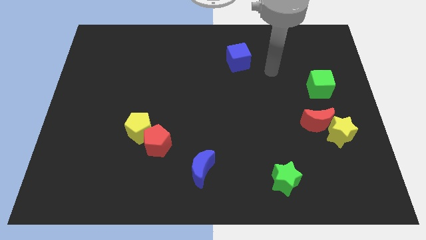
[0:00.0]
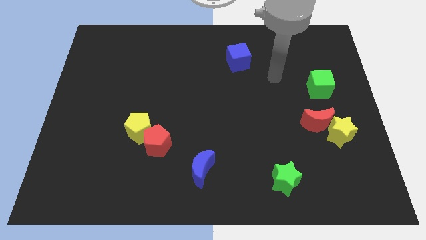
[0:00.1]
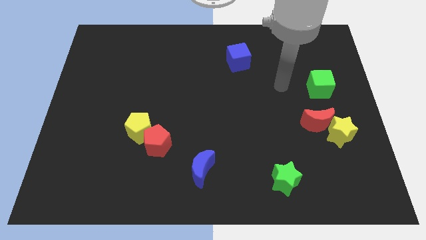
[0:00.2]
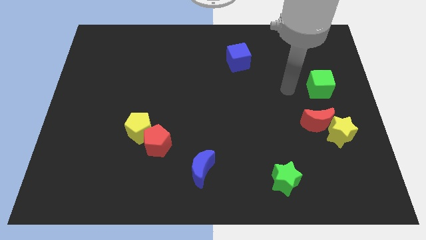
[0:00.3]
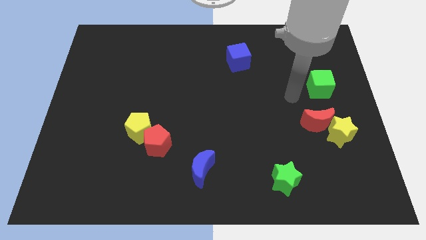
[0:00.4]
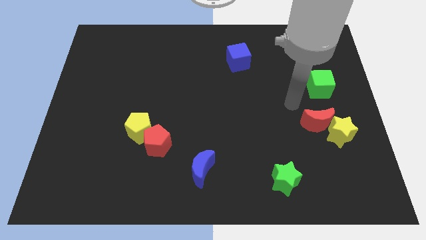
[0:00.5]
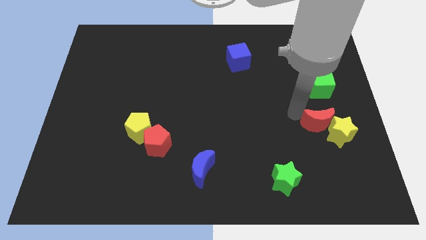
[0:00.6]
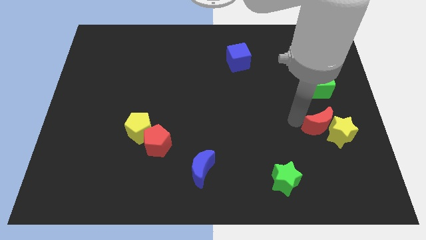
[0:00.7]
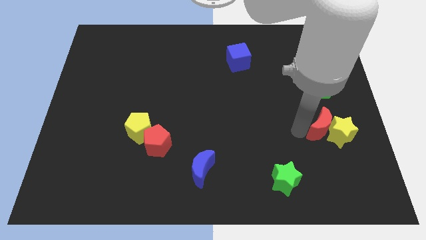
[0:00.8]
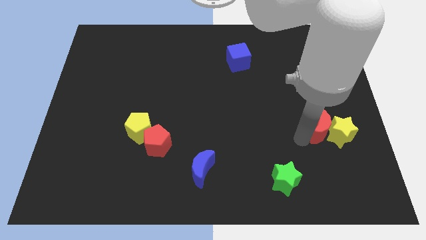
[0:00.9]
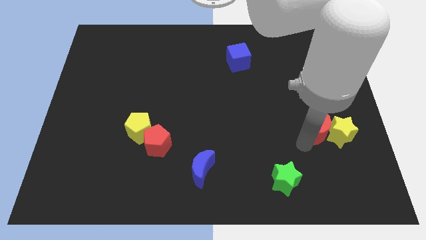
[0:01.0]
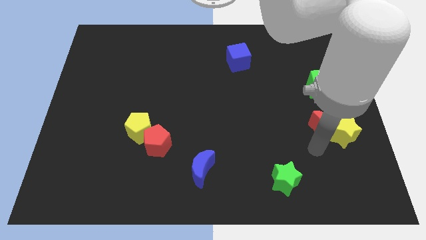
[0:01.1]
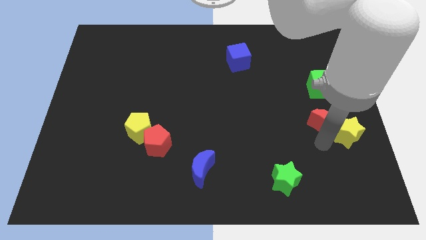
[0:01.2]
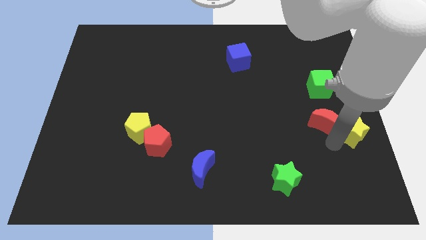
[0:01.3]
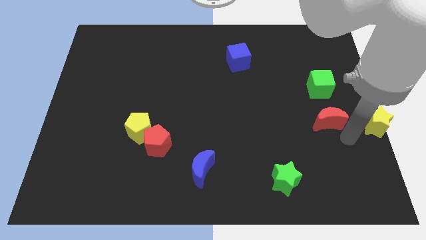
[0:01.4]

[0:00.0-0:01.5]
pull the red moon apart from the yellow star

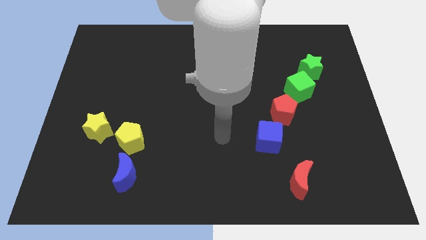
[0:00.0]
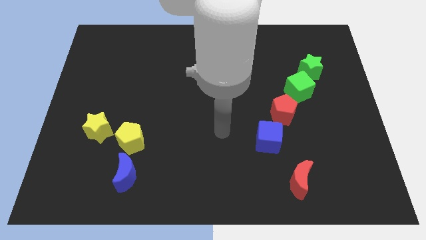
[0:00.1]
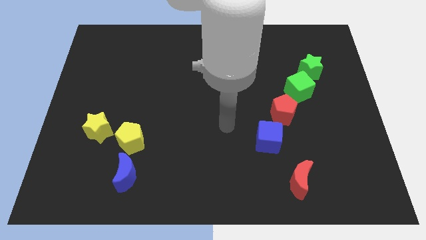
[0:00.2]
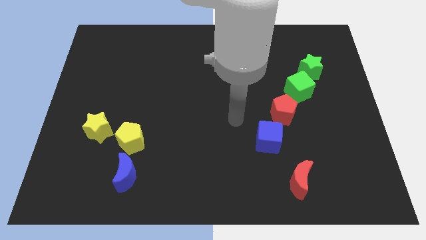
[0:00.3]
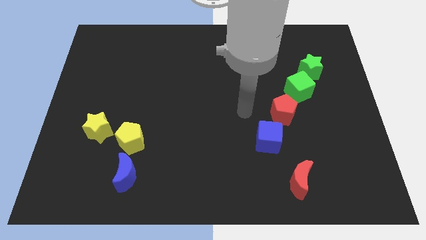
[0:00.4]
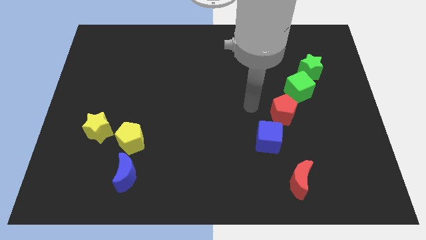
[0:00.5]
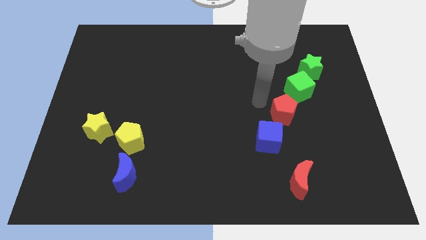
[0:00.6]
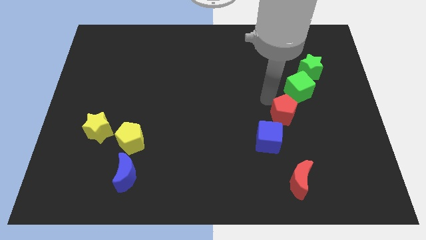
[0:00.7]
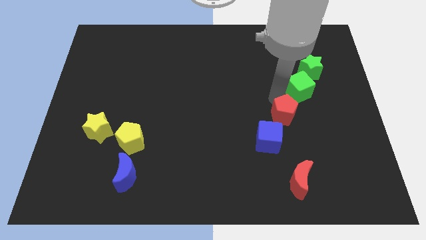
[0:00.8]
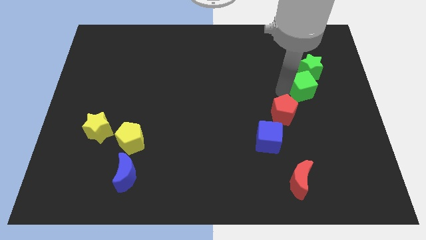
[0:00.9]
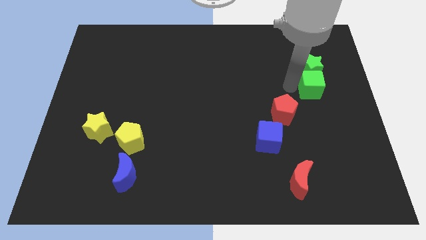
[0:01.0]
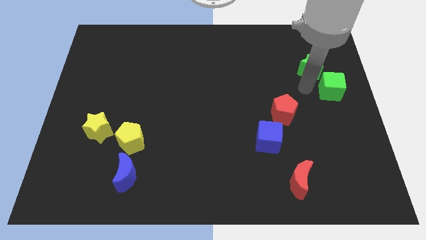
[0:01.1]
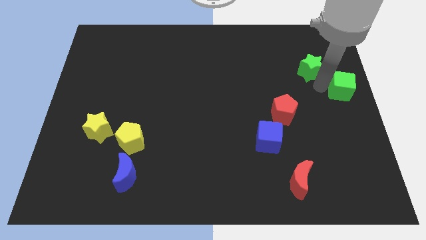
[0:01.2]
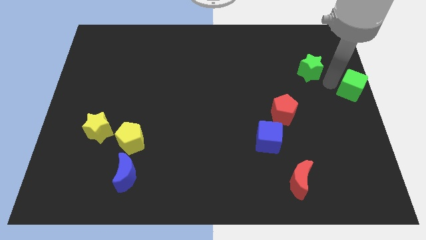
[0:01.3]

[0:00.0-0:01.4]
pull the green star apart from the green cube

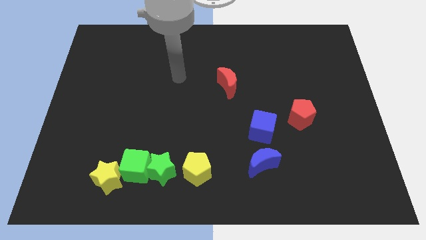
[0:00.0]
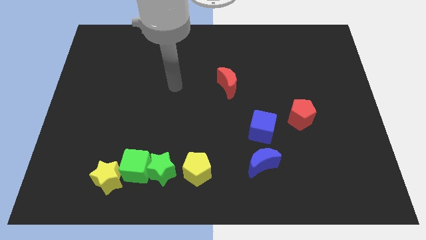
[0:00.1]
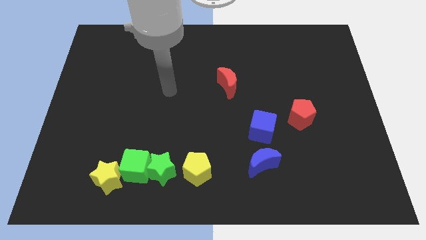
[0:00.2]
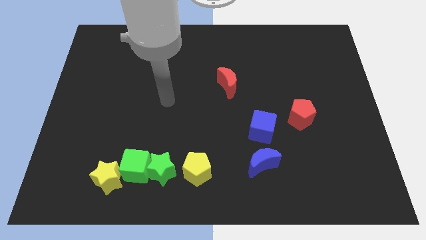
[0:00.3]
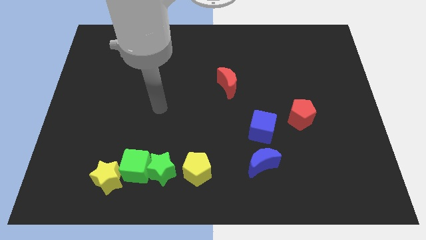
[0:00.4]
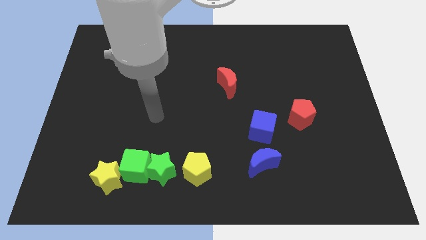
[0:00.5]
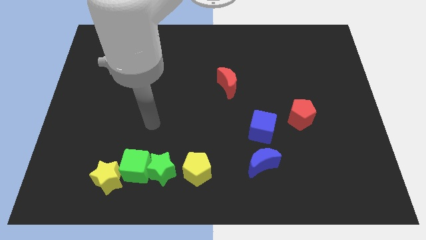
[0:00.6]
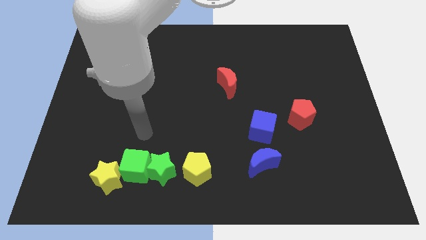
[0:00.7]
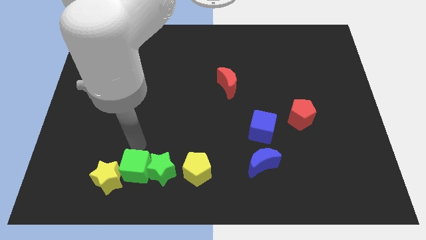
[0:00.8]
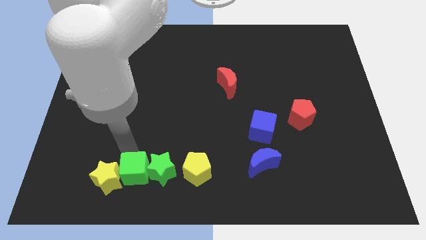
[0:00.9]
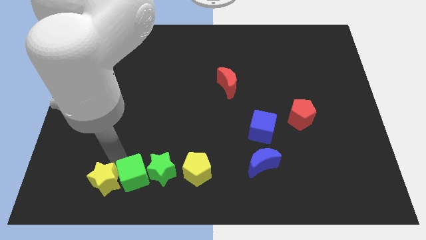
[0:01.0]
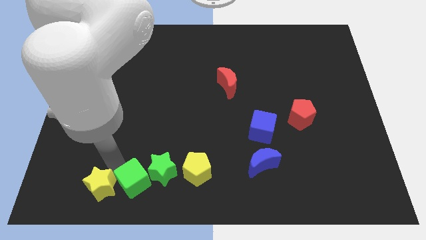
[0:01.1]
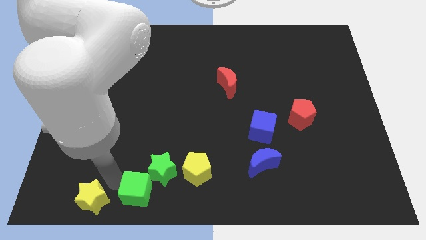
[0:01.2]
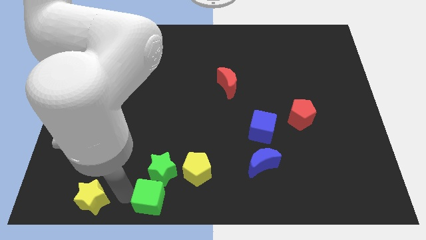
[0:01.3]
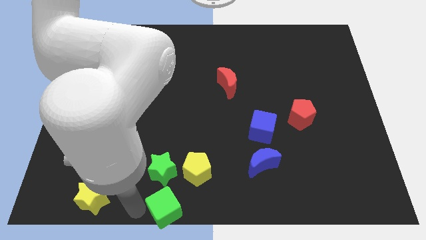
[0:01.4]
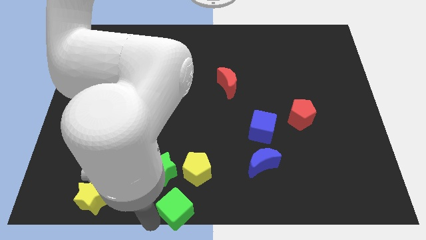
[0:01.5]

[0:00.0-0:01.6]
move the green cube away from the green star and yellow star

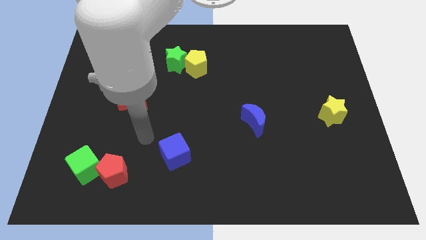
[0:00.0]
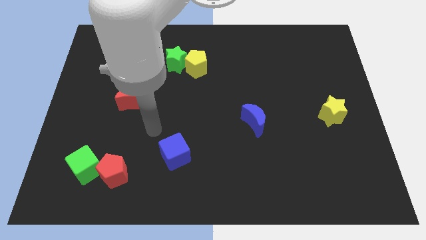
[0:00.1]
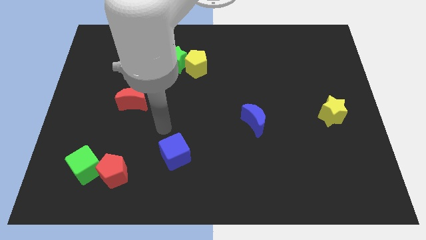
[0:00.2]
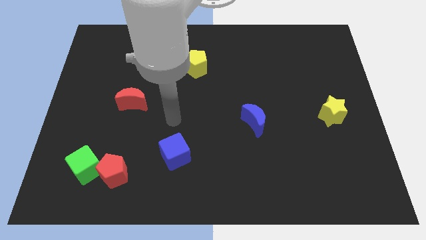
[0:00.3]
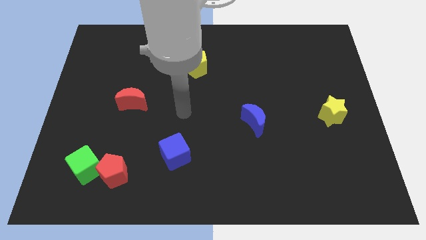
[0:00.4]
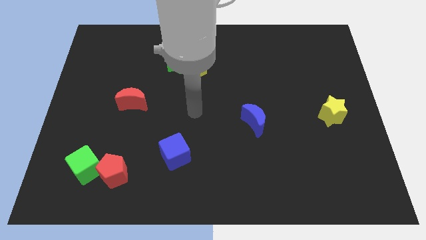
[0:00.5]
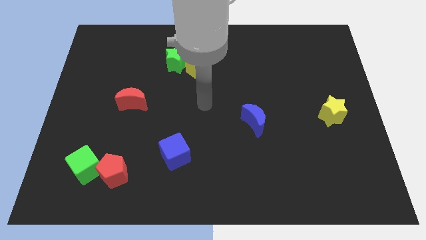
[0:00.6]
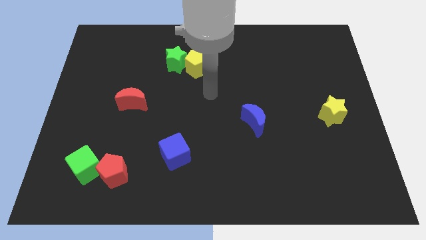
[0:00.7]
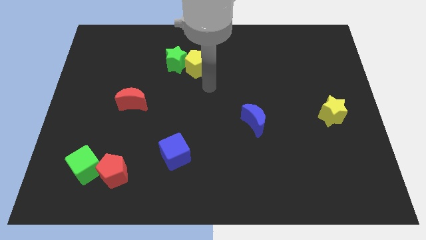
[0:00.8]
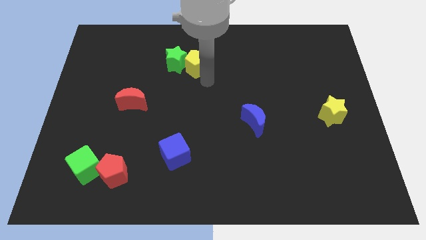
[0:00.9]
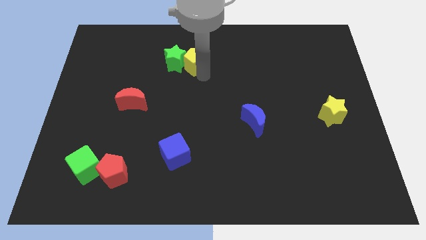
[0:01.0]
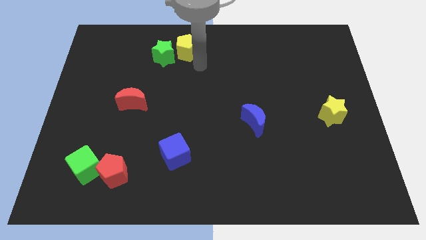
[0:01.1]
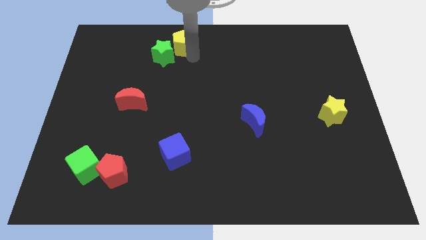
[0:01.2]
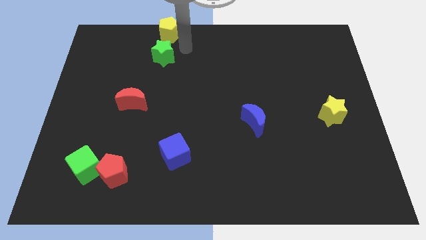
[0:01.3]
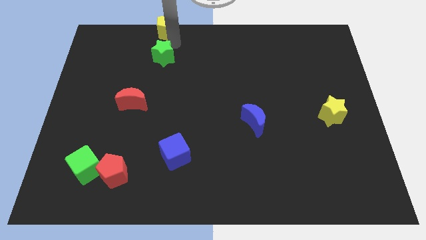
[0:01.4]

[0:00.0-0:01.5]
separate the green star from the yellow pentagon

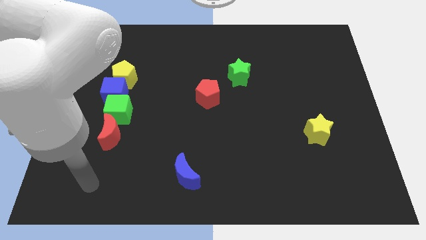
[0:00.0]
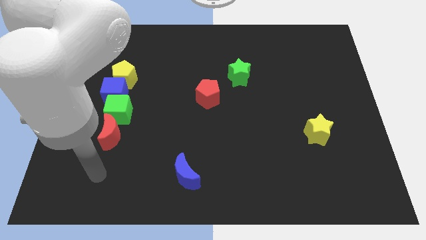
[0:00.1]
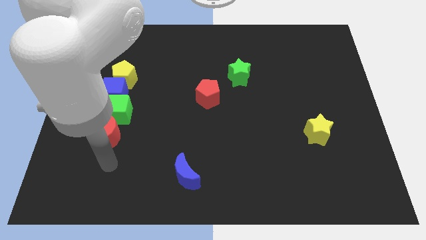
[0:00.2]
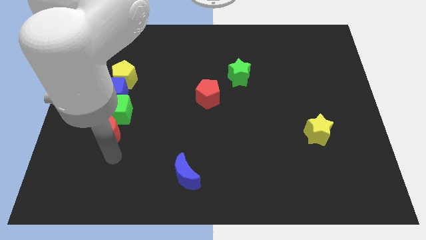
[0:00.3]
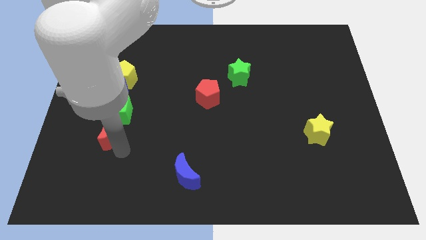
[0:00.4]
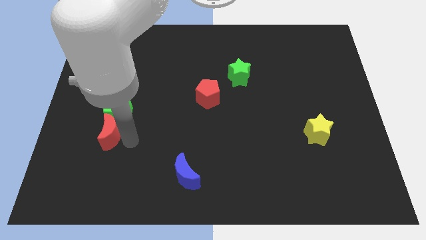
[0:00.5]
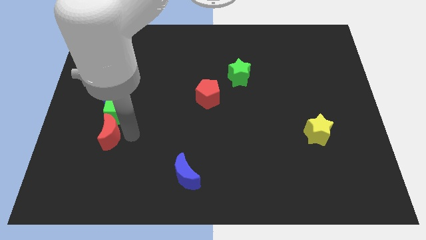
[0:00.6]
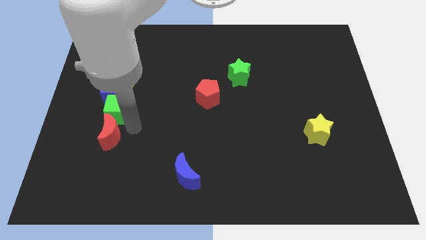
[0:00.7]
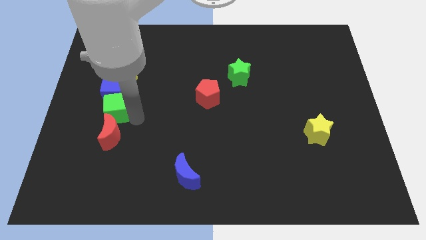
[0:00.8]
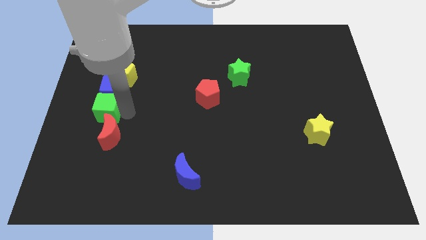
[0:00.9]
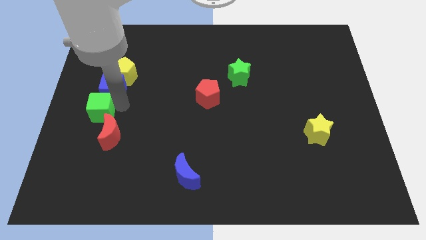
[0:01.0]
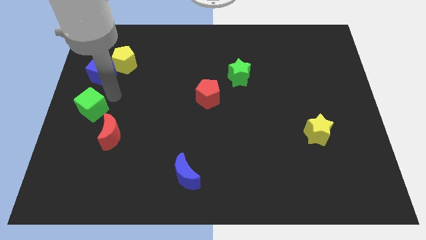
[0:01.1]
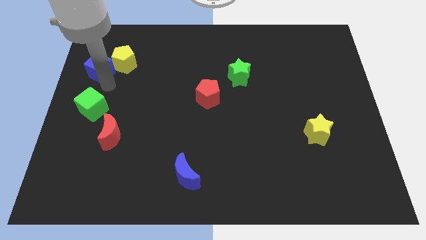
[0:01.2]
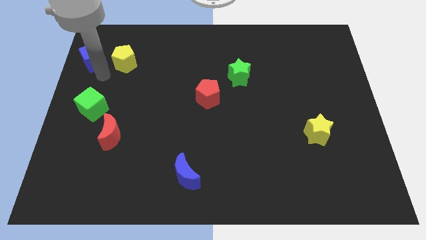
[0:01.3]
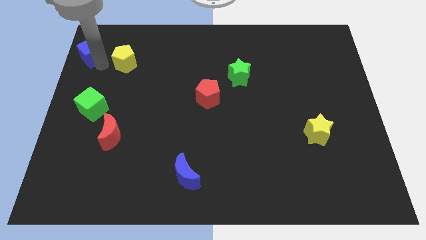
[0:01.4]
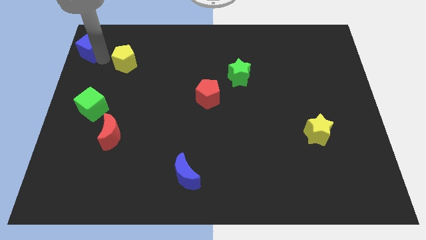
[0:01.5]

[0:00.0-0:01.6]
separate the yellow pentagon from the blue cube

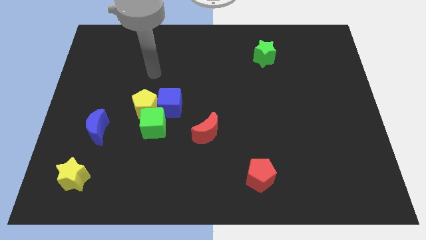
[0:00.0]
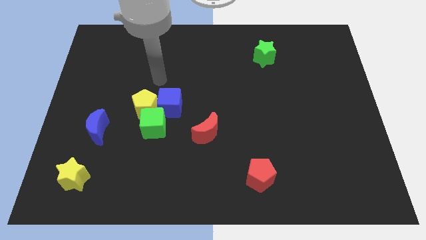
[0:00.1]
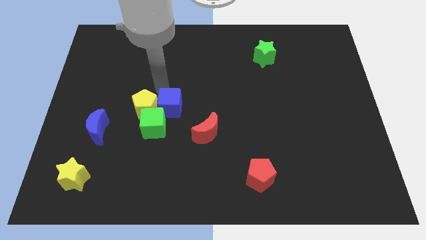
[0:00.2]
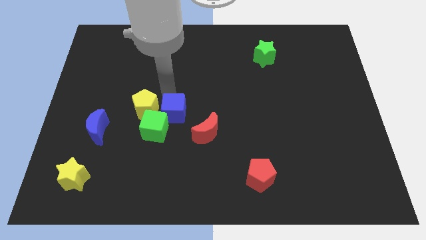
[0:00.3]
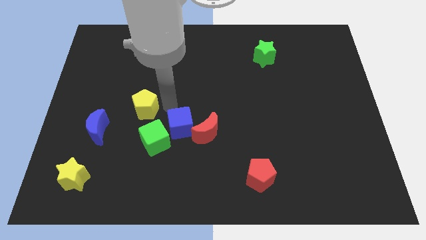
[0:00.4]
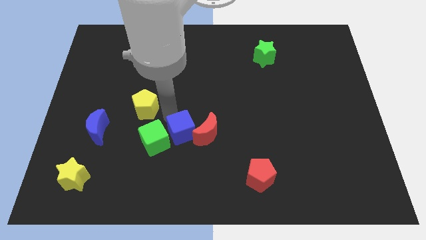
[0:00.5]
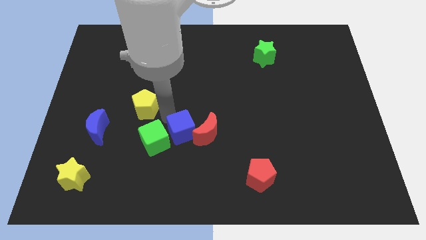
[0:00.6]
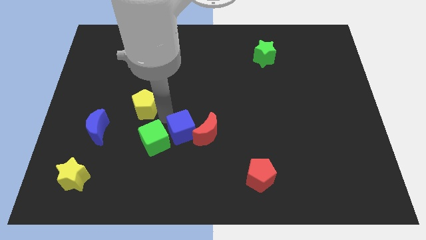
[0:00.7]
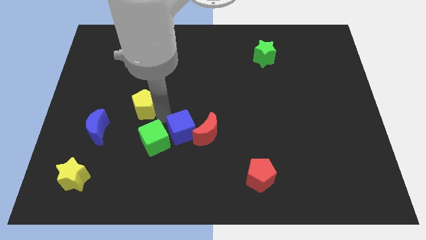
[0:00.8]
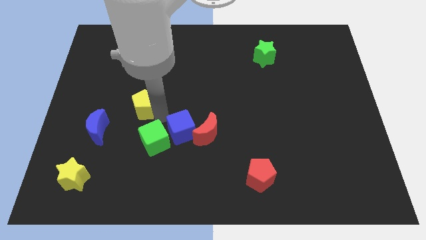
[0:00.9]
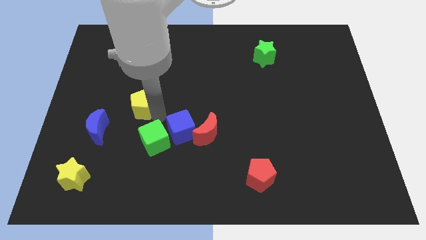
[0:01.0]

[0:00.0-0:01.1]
move the yellow pentagon away from the green cube and blue cube

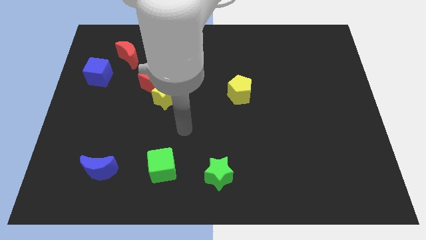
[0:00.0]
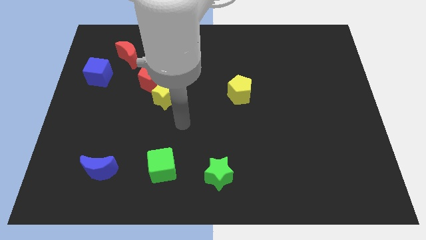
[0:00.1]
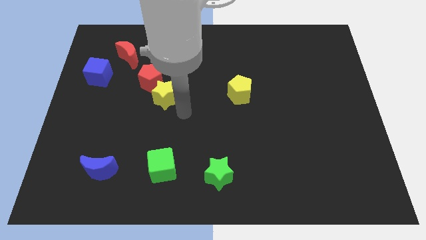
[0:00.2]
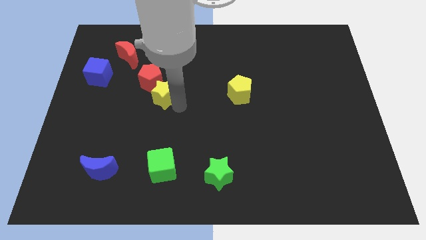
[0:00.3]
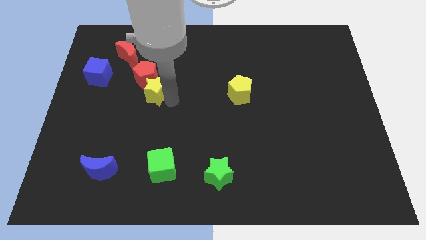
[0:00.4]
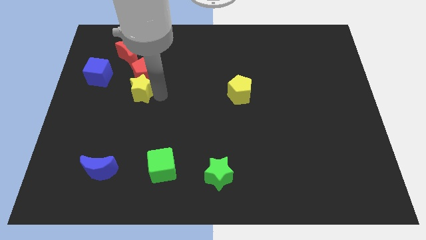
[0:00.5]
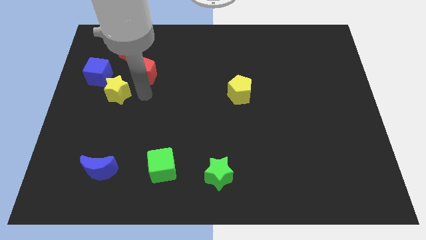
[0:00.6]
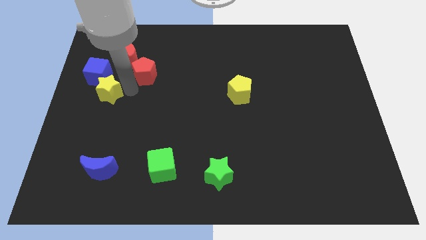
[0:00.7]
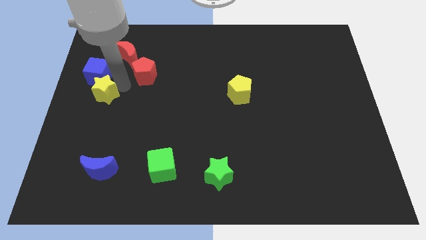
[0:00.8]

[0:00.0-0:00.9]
pull the red pentagon apart from the yellow star
